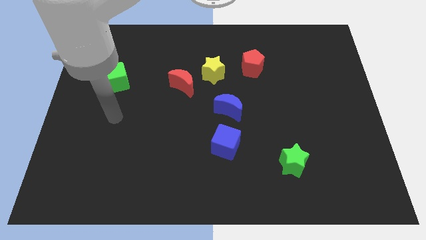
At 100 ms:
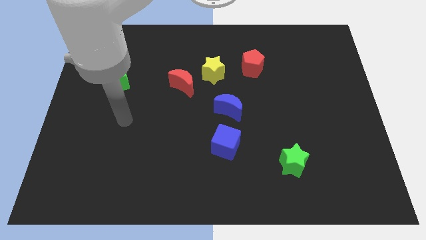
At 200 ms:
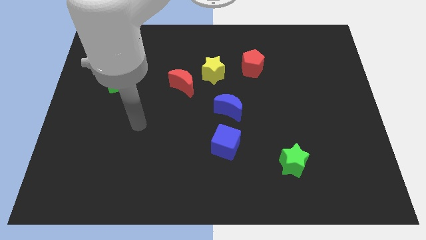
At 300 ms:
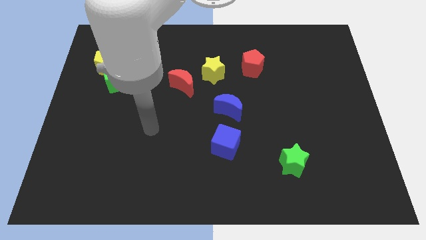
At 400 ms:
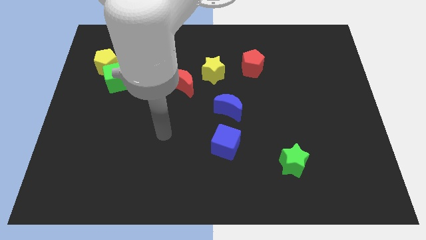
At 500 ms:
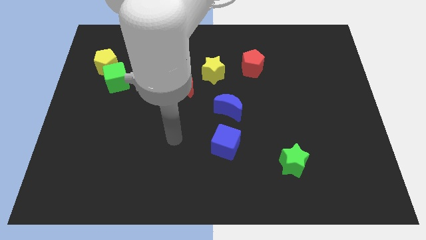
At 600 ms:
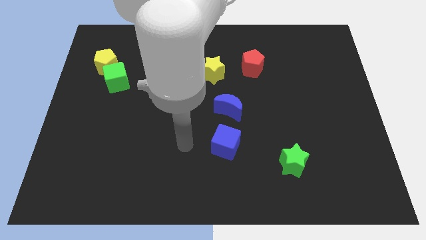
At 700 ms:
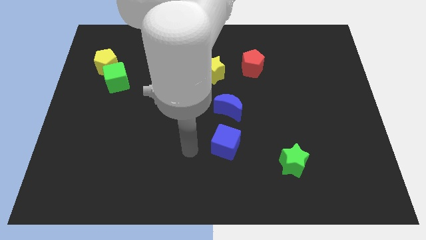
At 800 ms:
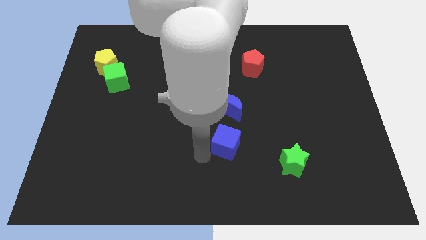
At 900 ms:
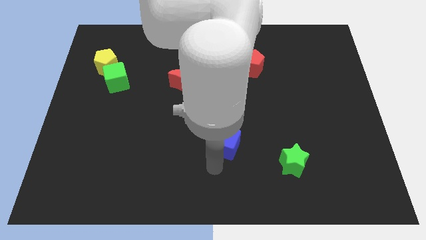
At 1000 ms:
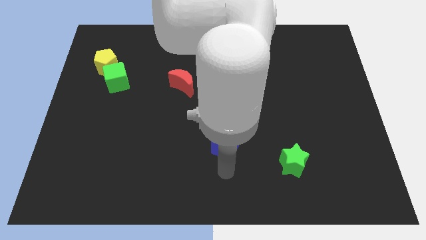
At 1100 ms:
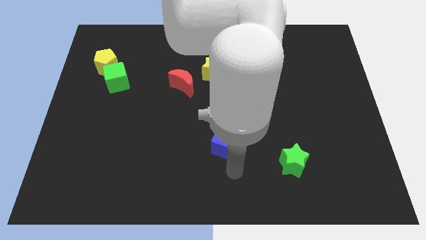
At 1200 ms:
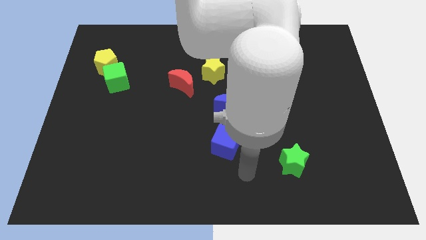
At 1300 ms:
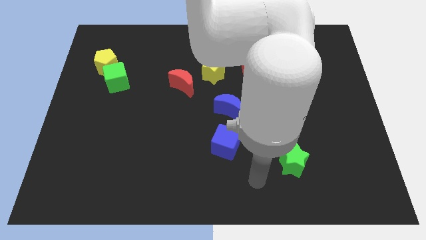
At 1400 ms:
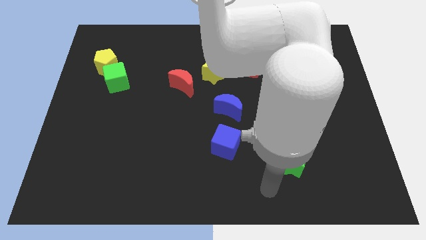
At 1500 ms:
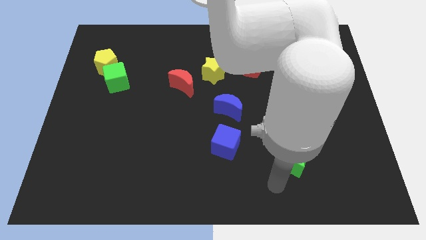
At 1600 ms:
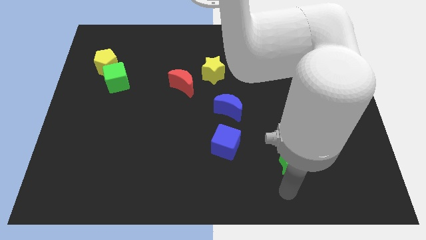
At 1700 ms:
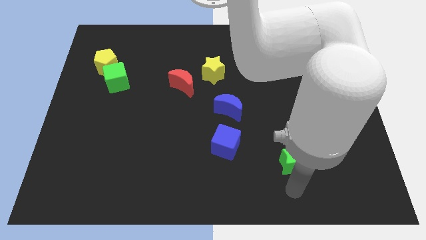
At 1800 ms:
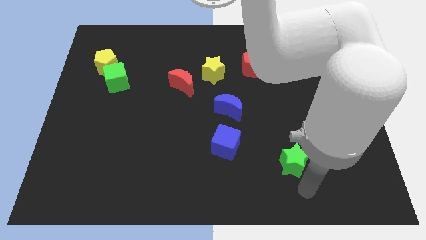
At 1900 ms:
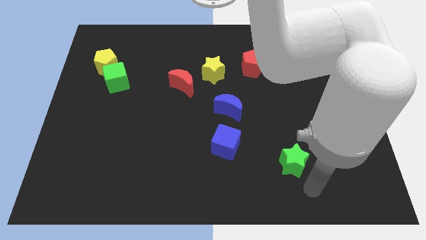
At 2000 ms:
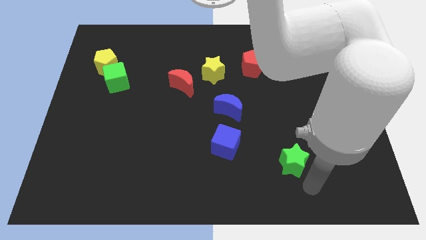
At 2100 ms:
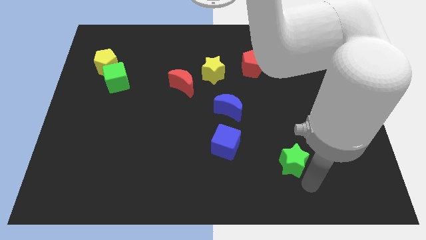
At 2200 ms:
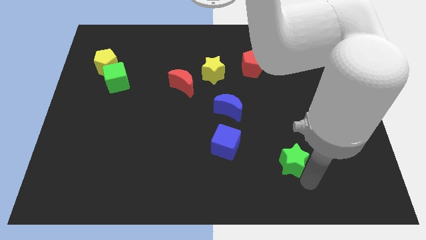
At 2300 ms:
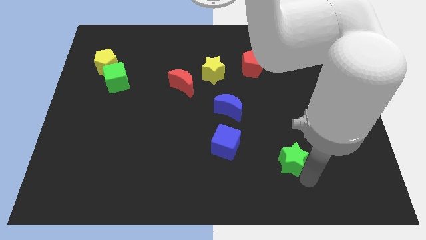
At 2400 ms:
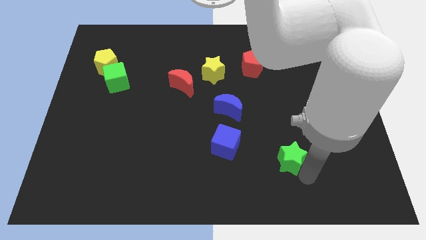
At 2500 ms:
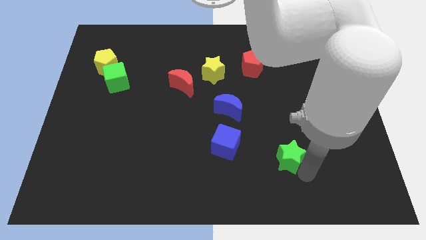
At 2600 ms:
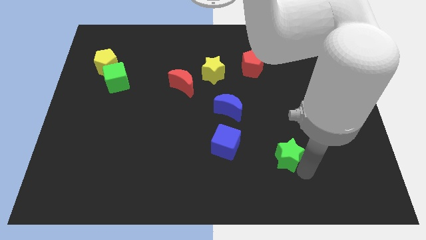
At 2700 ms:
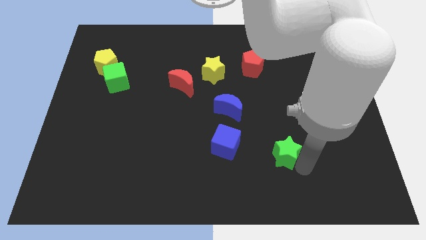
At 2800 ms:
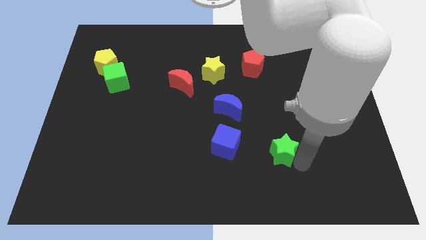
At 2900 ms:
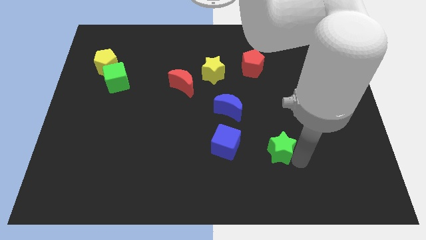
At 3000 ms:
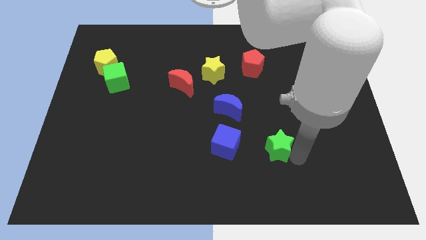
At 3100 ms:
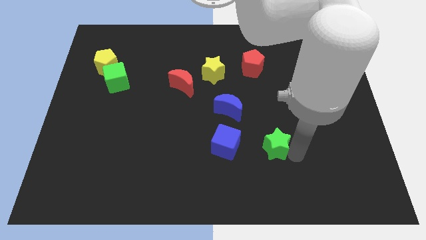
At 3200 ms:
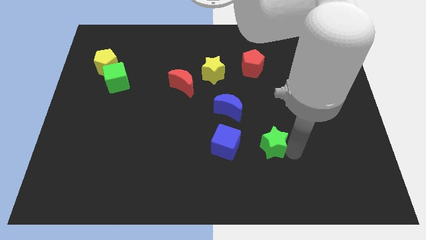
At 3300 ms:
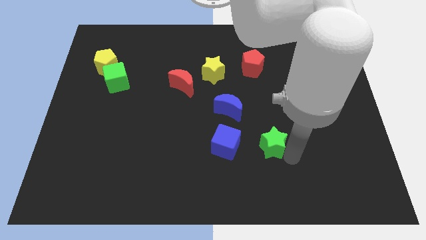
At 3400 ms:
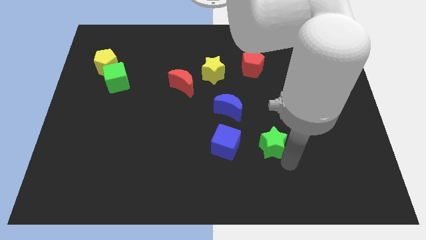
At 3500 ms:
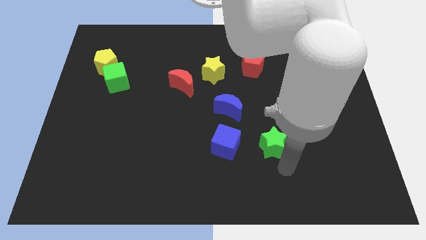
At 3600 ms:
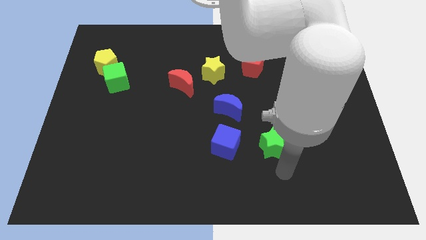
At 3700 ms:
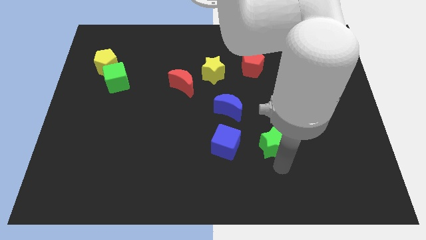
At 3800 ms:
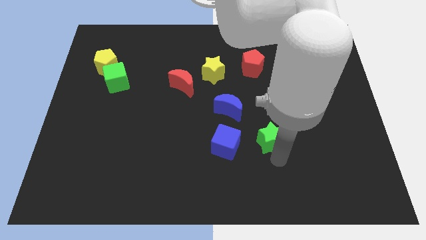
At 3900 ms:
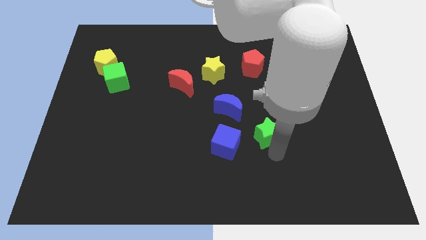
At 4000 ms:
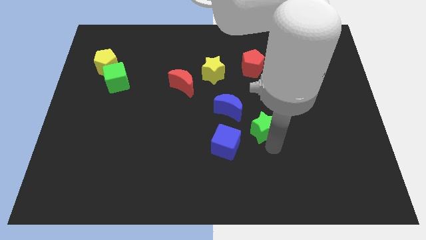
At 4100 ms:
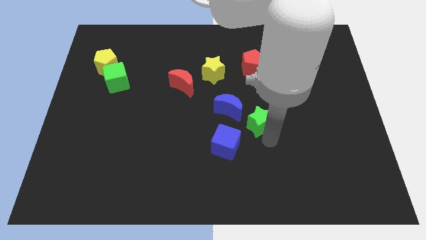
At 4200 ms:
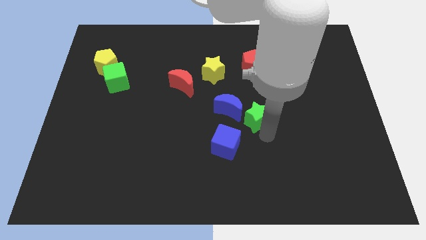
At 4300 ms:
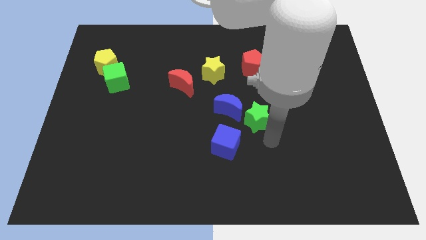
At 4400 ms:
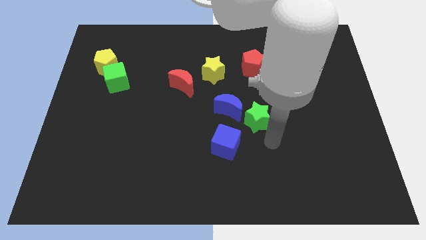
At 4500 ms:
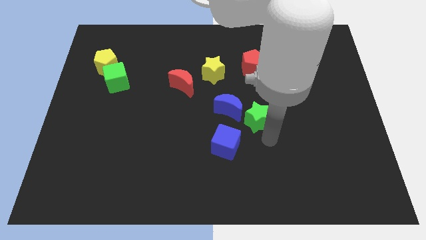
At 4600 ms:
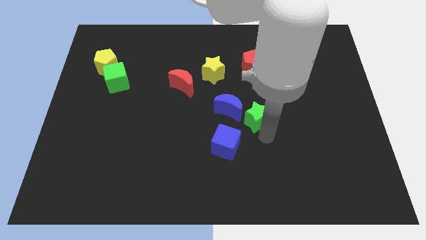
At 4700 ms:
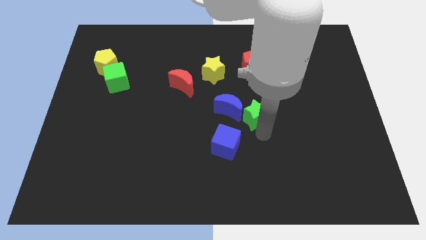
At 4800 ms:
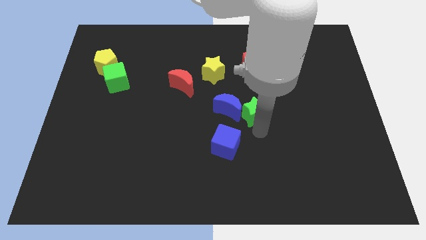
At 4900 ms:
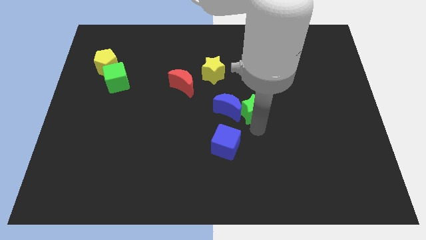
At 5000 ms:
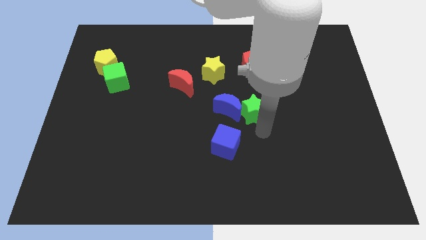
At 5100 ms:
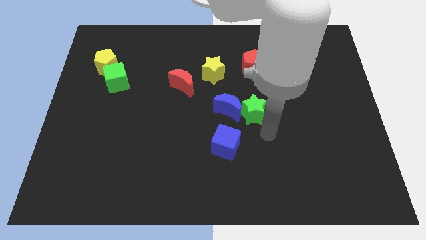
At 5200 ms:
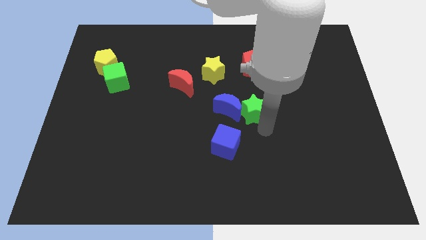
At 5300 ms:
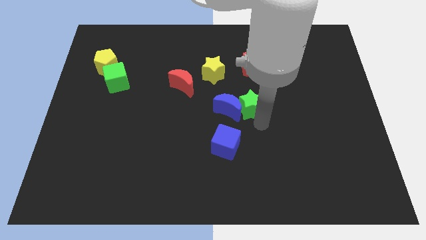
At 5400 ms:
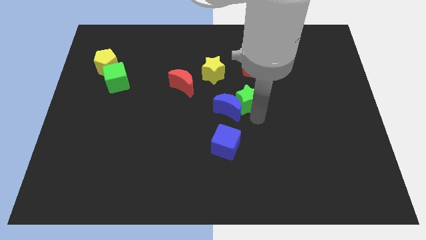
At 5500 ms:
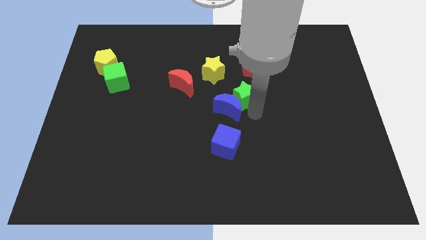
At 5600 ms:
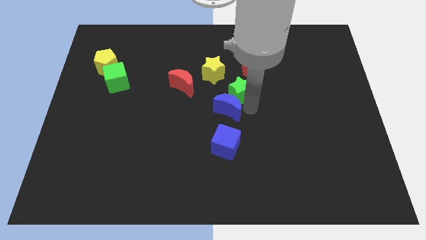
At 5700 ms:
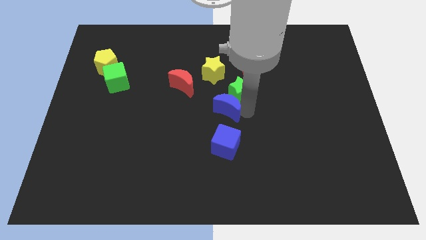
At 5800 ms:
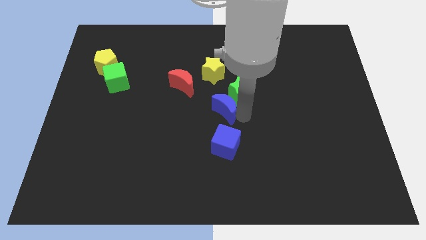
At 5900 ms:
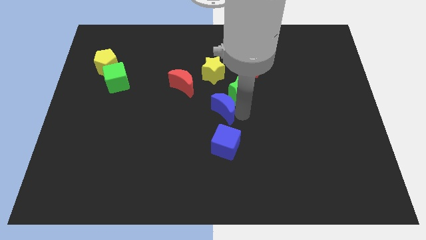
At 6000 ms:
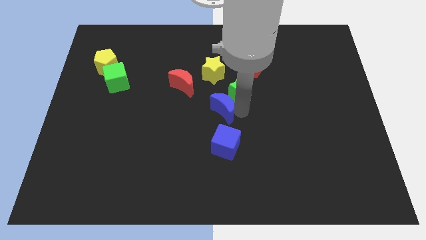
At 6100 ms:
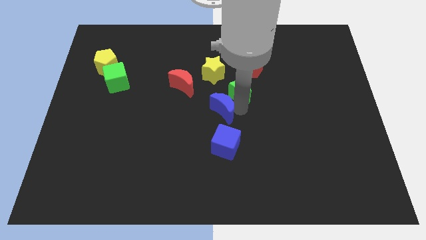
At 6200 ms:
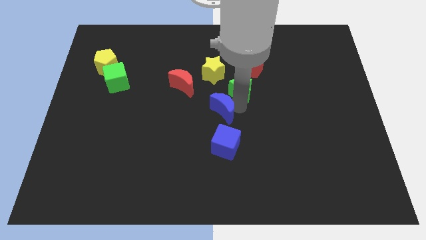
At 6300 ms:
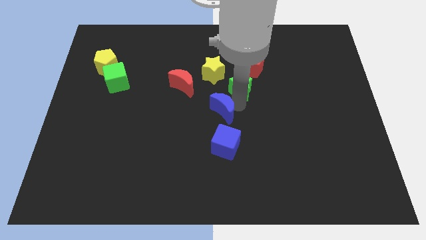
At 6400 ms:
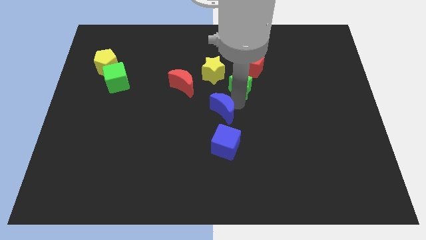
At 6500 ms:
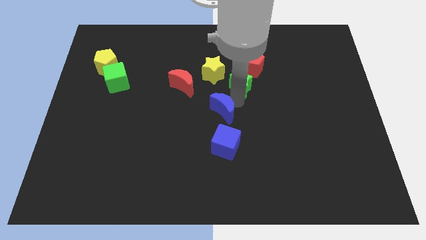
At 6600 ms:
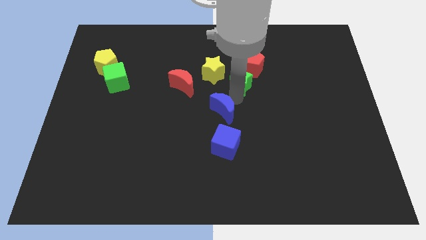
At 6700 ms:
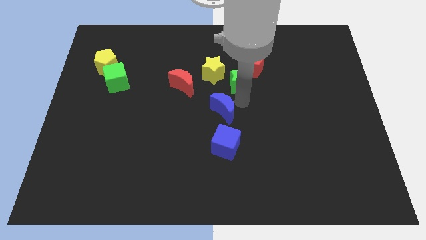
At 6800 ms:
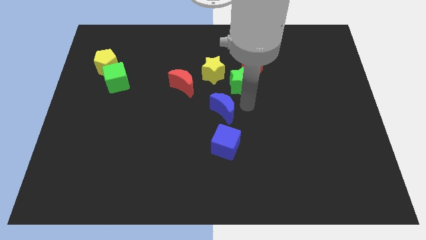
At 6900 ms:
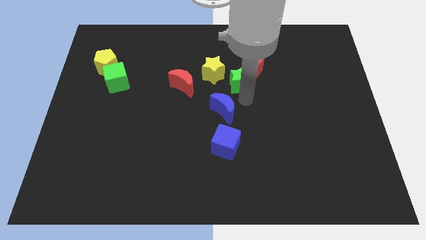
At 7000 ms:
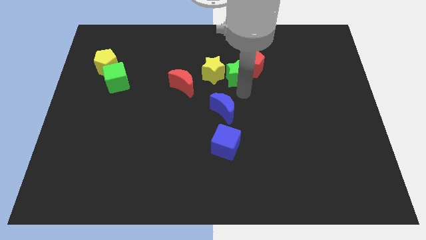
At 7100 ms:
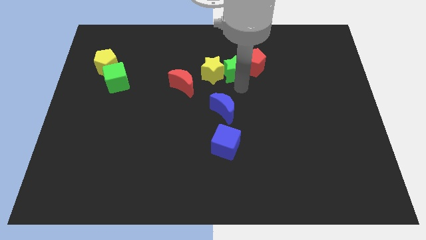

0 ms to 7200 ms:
move the green star diagonally up and to the right of the yellow star
